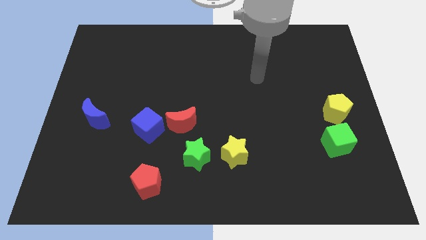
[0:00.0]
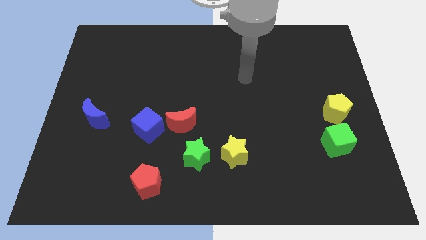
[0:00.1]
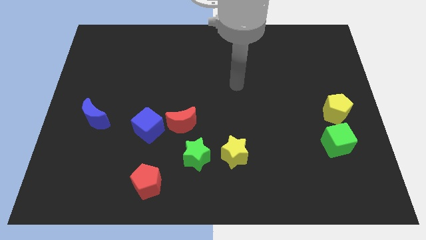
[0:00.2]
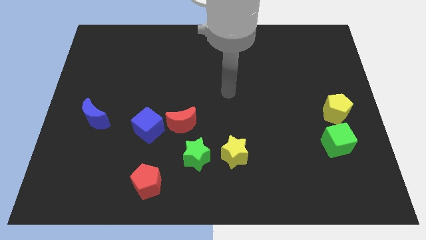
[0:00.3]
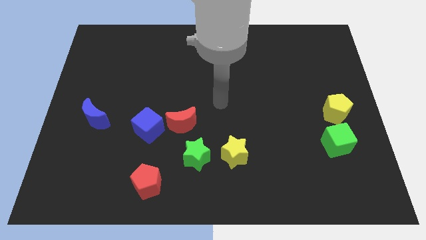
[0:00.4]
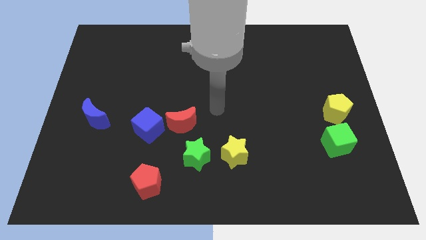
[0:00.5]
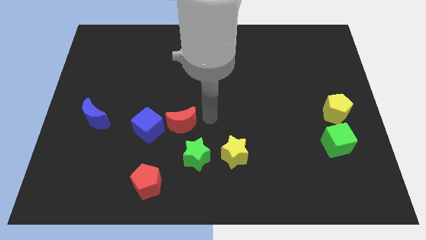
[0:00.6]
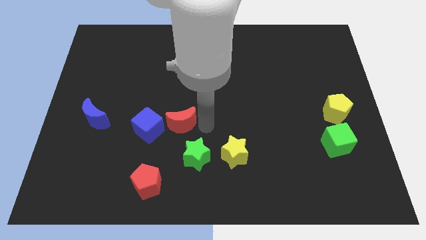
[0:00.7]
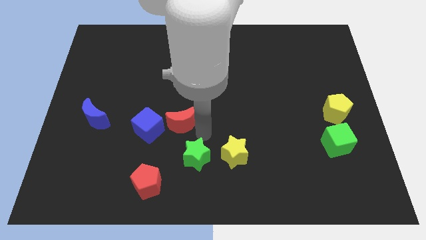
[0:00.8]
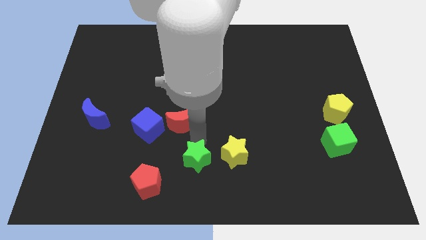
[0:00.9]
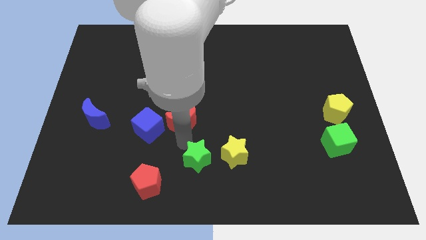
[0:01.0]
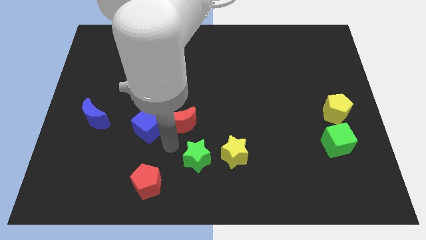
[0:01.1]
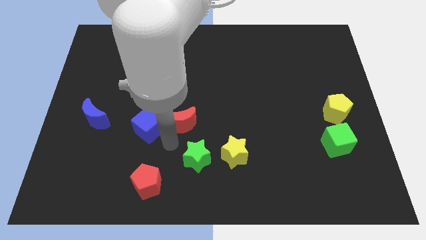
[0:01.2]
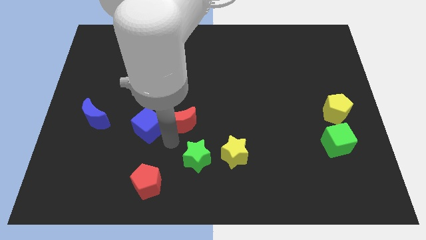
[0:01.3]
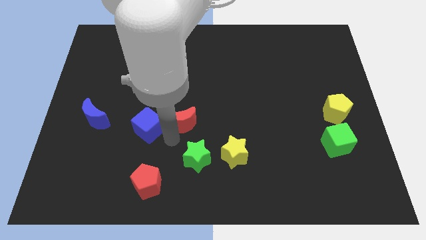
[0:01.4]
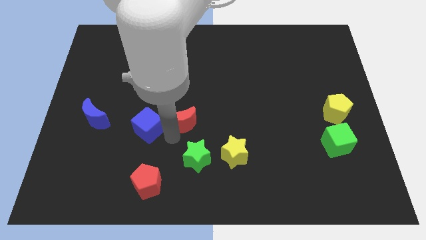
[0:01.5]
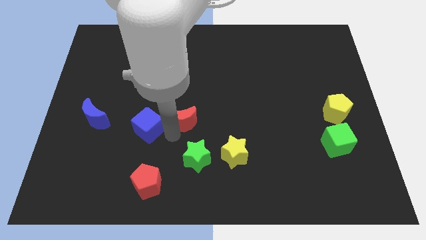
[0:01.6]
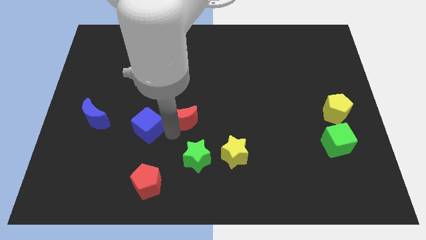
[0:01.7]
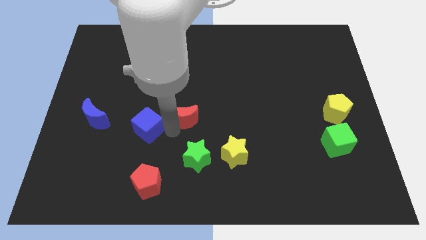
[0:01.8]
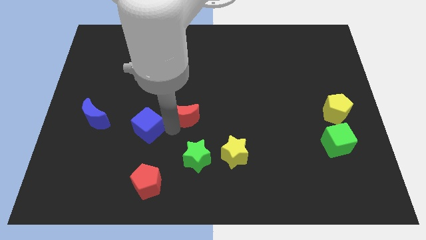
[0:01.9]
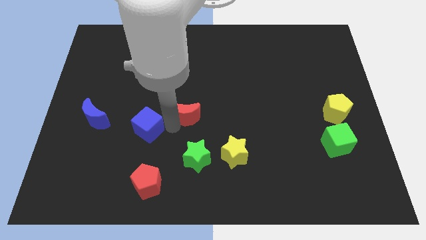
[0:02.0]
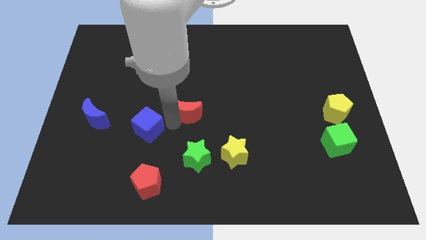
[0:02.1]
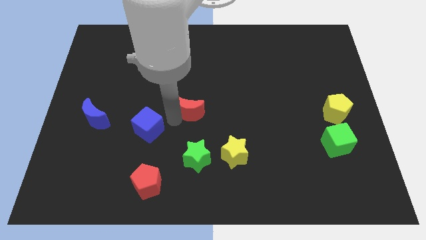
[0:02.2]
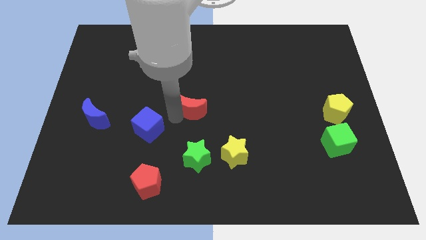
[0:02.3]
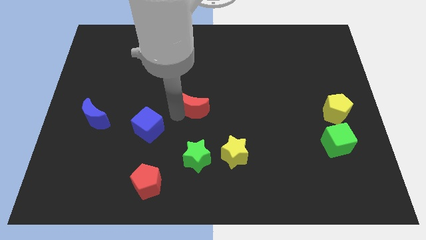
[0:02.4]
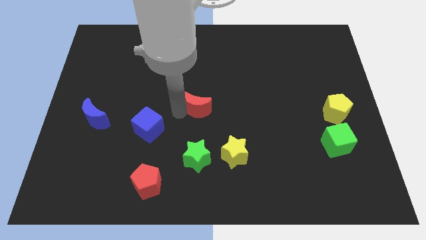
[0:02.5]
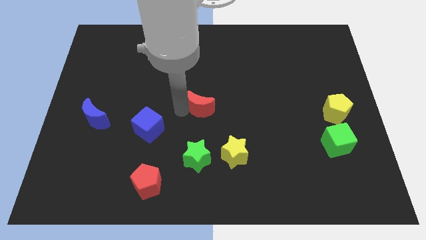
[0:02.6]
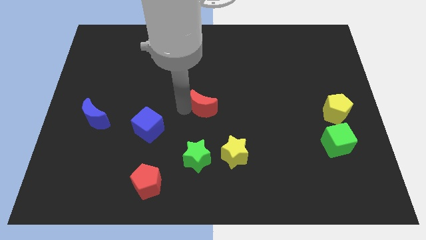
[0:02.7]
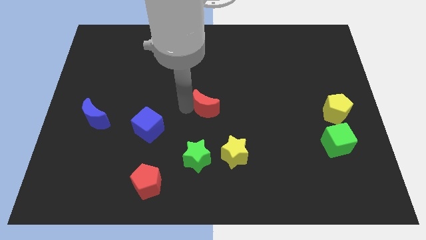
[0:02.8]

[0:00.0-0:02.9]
slide the red moon a bit diagonally upwards and right

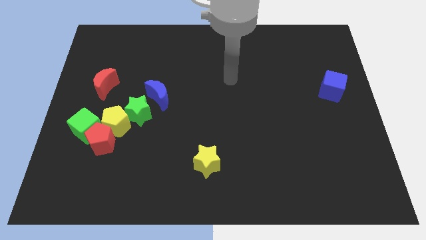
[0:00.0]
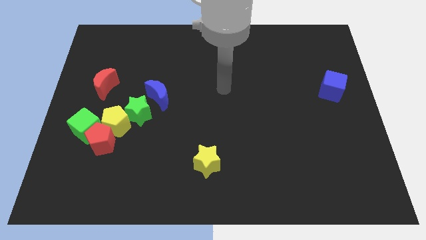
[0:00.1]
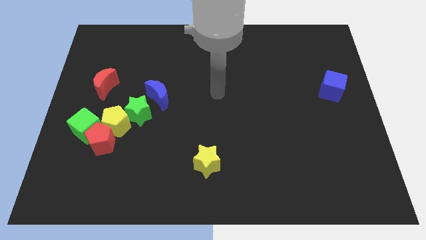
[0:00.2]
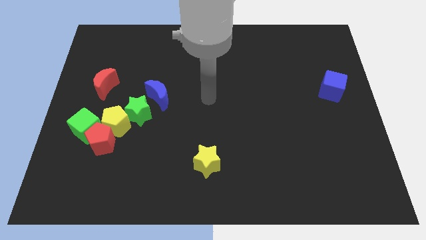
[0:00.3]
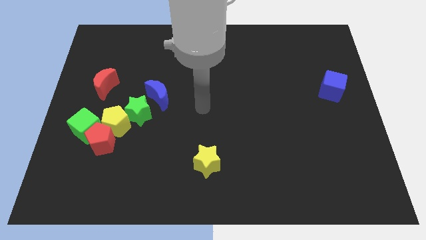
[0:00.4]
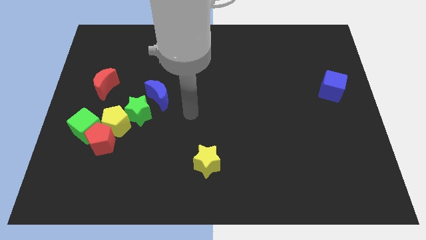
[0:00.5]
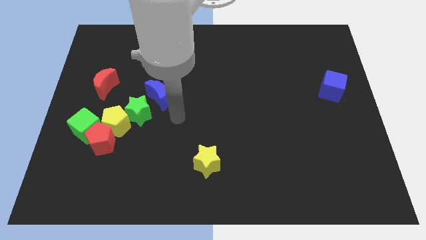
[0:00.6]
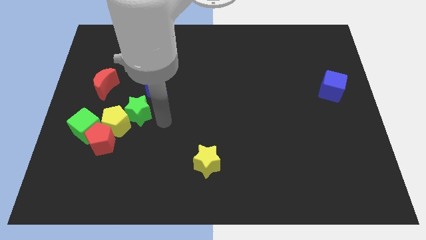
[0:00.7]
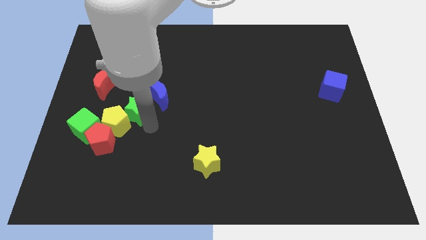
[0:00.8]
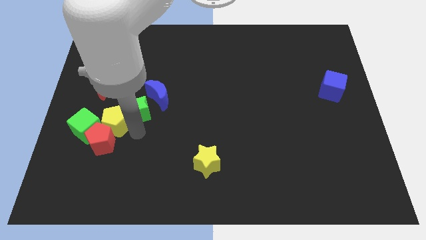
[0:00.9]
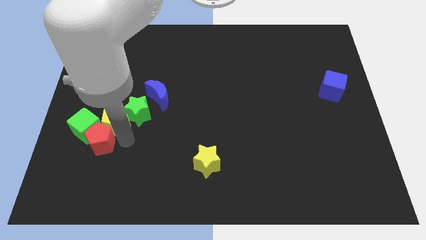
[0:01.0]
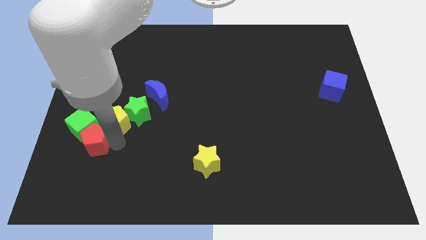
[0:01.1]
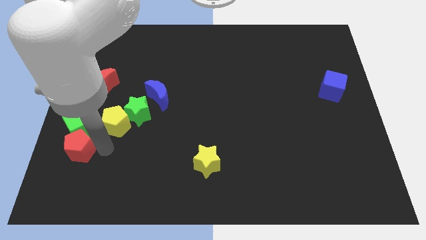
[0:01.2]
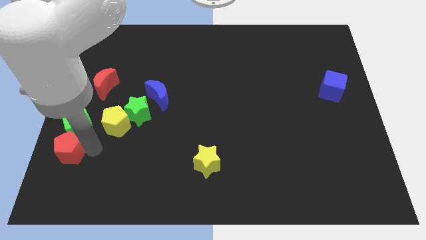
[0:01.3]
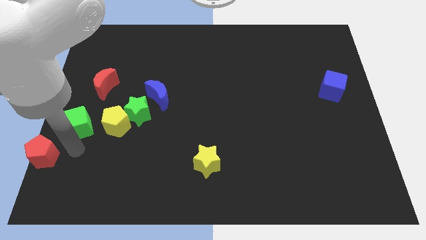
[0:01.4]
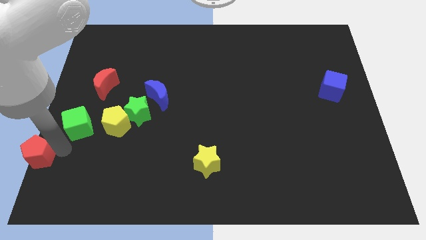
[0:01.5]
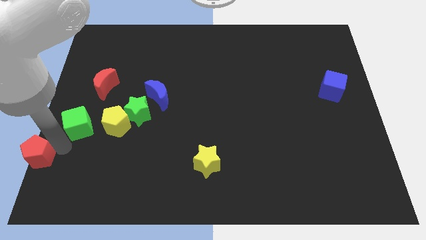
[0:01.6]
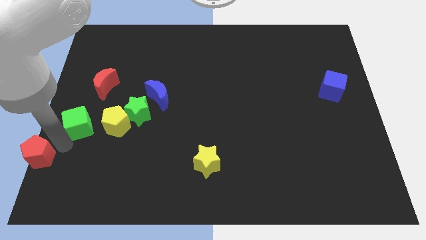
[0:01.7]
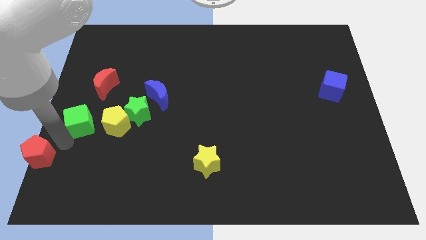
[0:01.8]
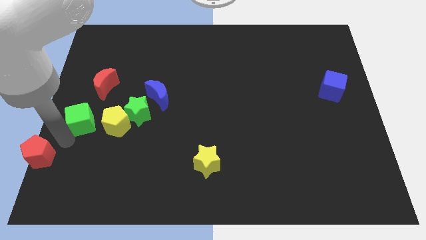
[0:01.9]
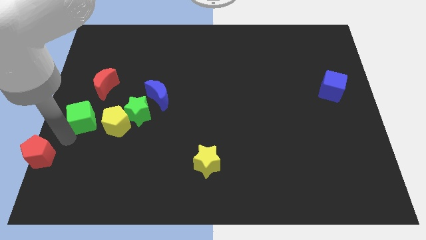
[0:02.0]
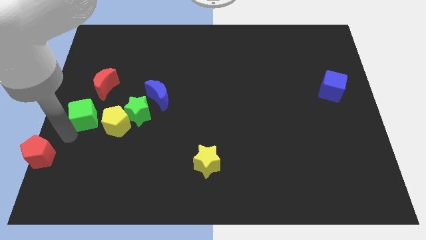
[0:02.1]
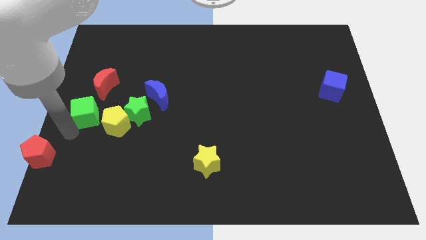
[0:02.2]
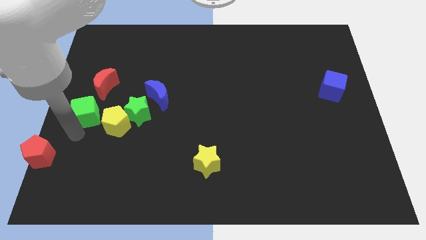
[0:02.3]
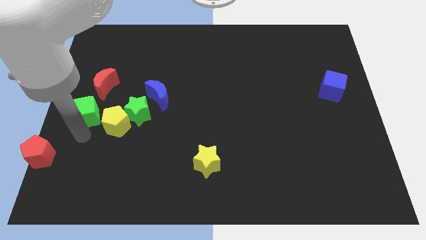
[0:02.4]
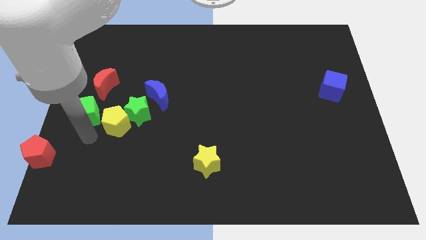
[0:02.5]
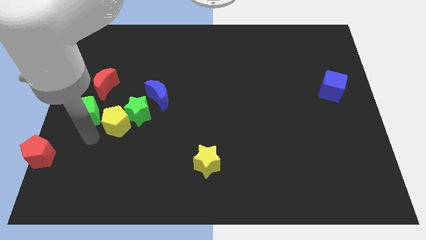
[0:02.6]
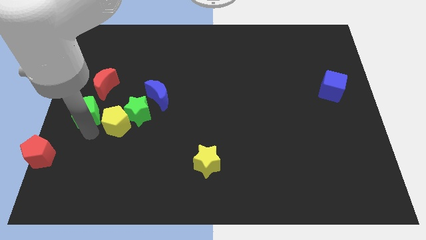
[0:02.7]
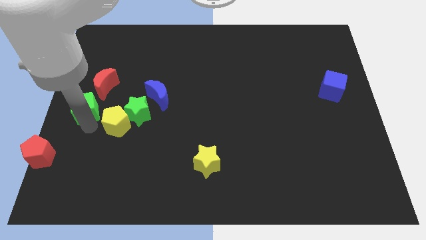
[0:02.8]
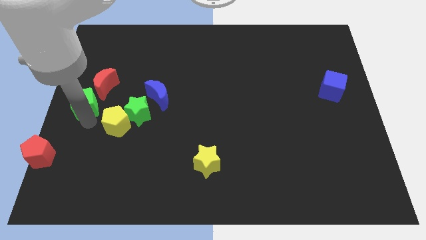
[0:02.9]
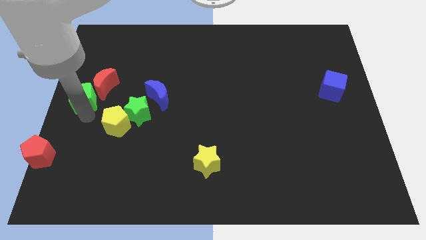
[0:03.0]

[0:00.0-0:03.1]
slightly move the green cube up

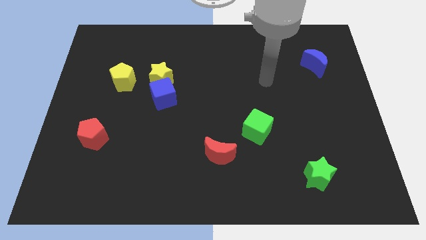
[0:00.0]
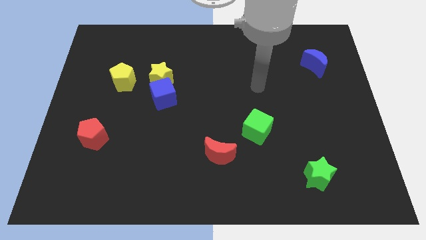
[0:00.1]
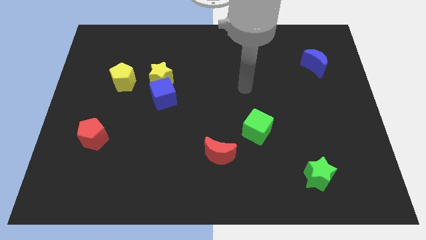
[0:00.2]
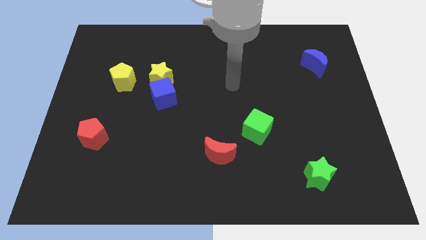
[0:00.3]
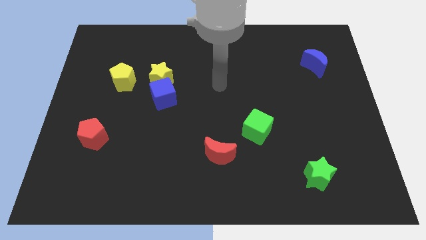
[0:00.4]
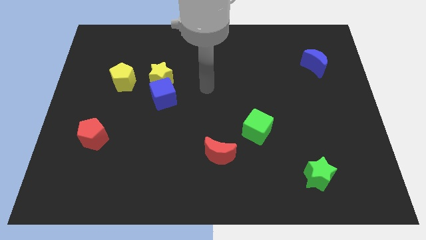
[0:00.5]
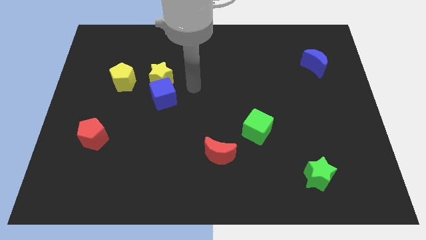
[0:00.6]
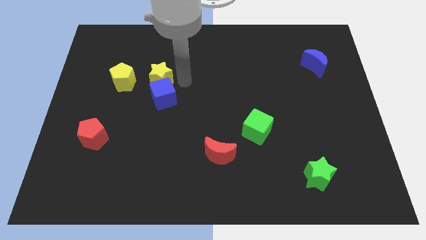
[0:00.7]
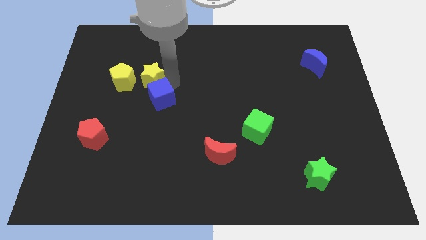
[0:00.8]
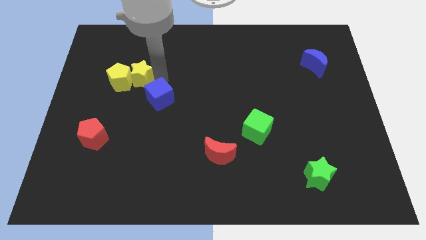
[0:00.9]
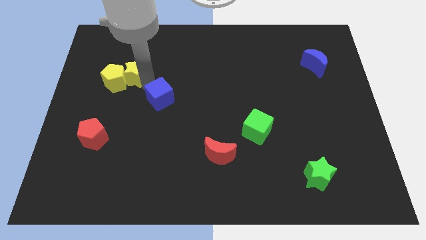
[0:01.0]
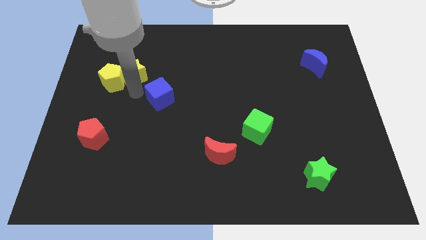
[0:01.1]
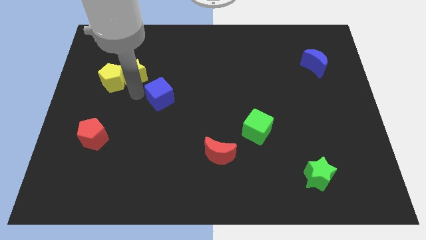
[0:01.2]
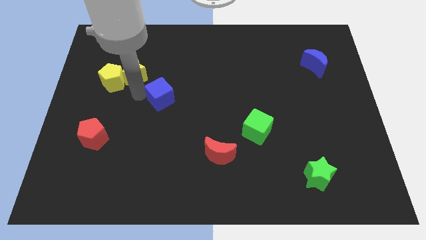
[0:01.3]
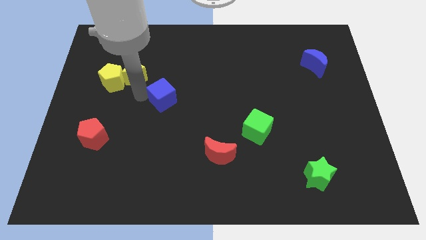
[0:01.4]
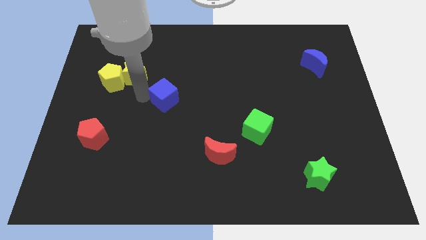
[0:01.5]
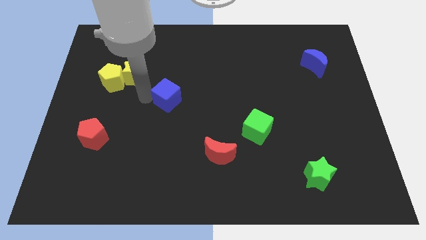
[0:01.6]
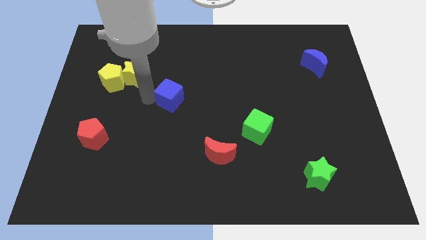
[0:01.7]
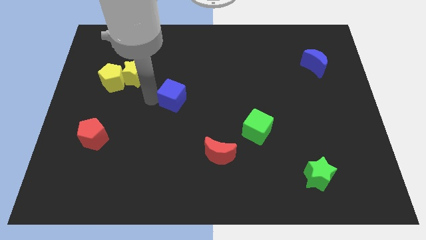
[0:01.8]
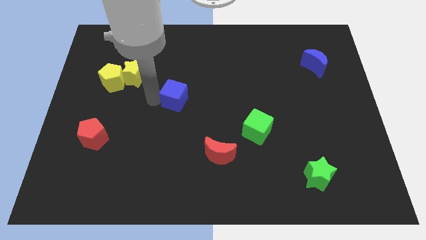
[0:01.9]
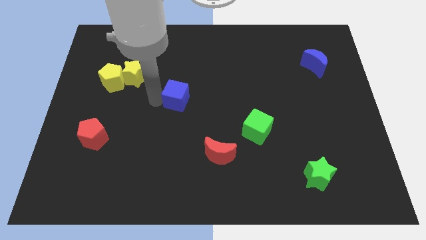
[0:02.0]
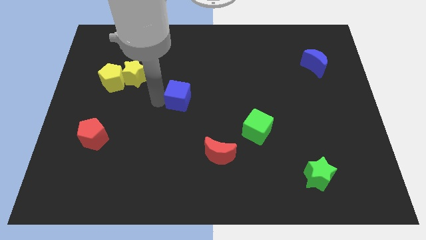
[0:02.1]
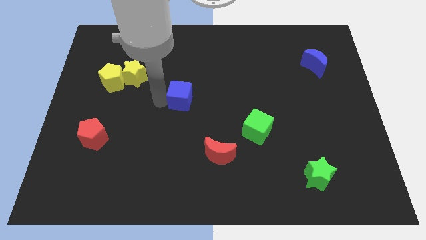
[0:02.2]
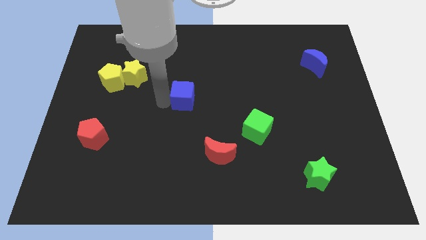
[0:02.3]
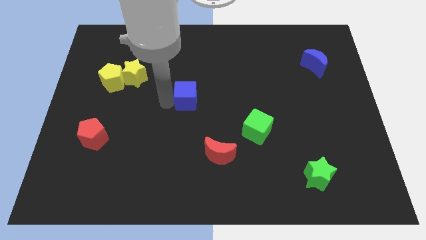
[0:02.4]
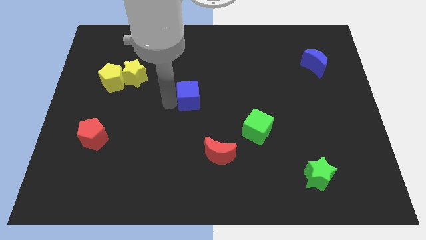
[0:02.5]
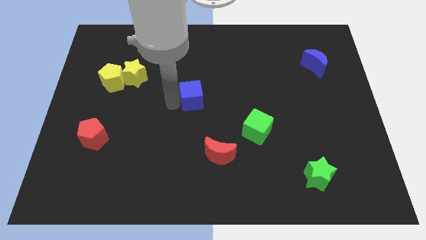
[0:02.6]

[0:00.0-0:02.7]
slide the blue cube a little bit to the right
